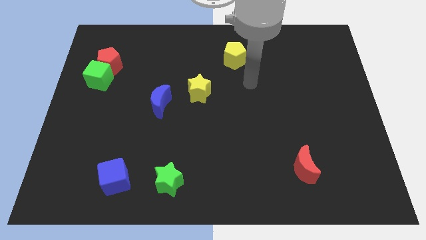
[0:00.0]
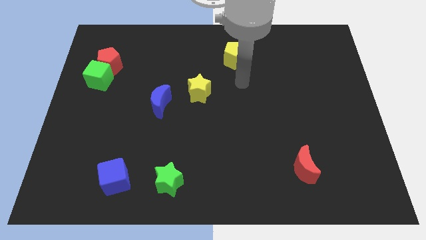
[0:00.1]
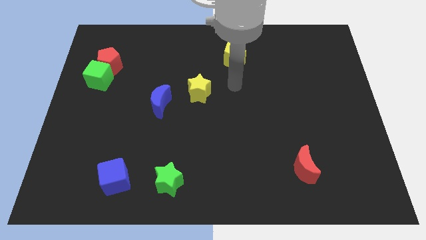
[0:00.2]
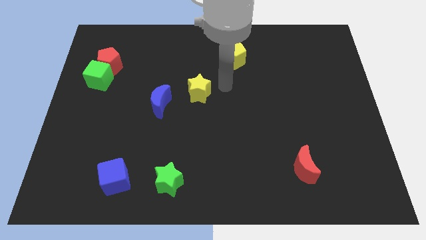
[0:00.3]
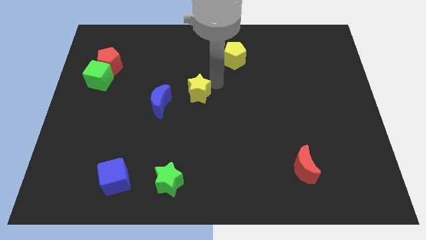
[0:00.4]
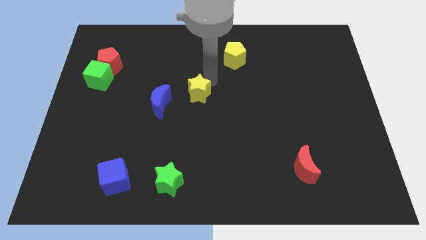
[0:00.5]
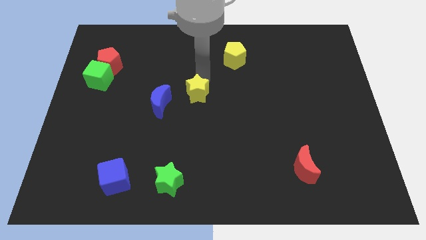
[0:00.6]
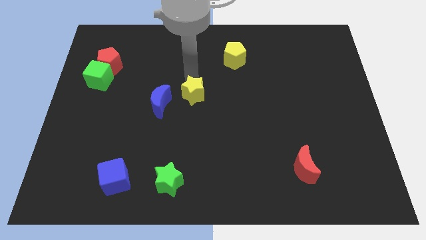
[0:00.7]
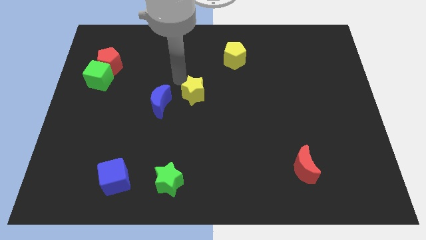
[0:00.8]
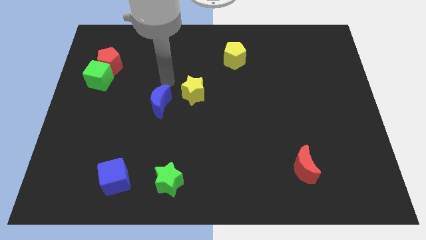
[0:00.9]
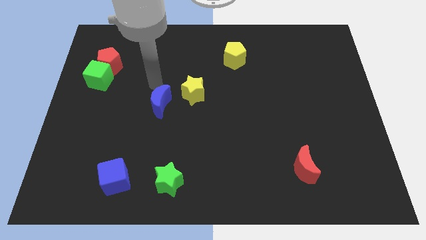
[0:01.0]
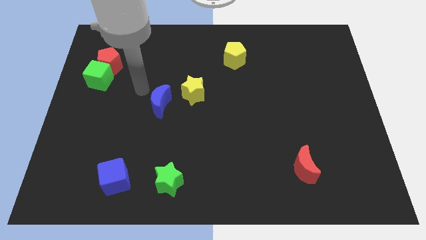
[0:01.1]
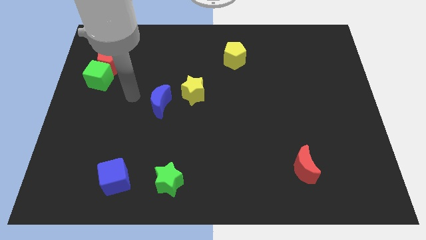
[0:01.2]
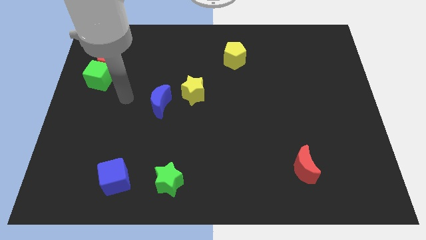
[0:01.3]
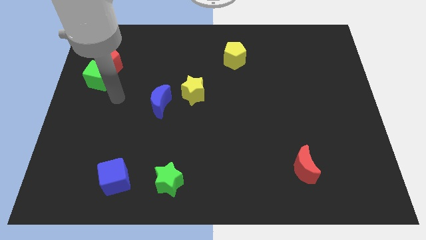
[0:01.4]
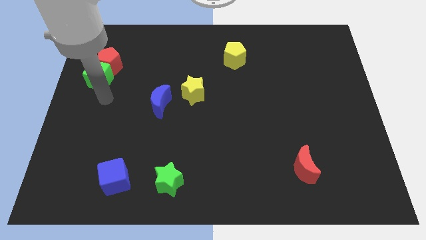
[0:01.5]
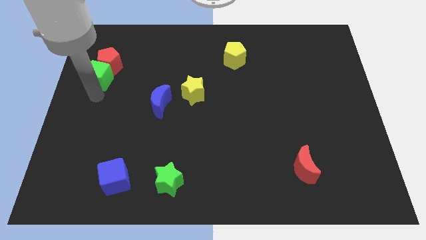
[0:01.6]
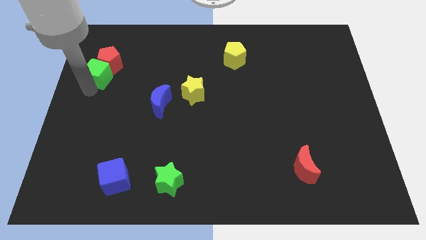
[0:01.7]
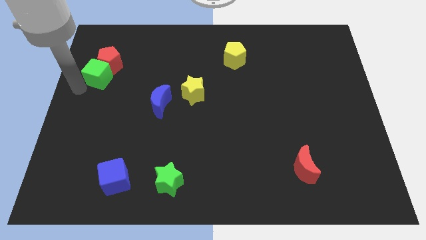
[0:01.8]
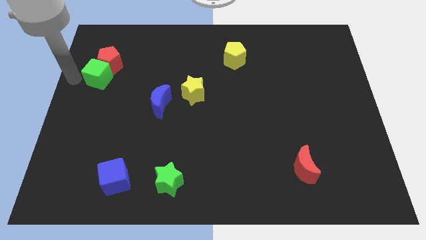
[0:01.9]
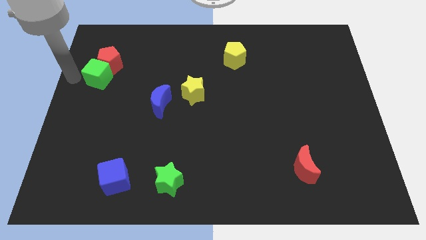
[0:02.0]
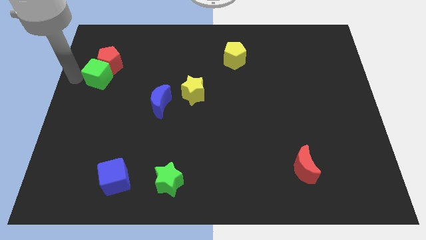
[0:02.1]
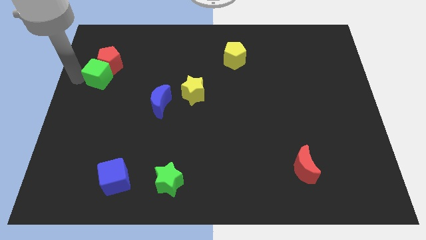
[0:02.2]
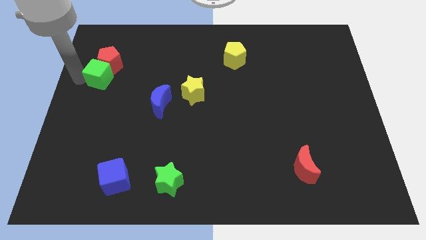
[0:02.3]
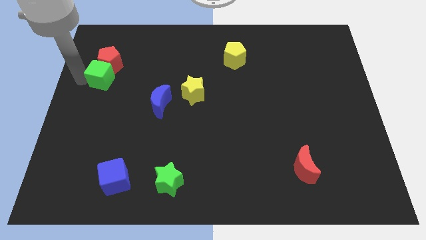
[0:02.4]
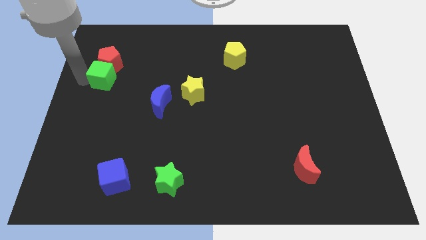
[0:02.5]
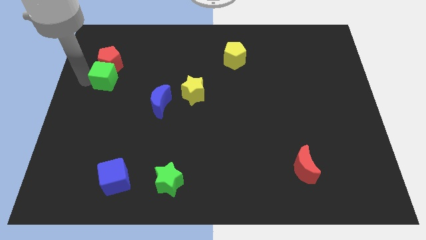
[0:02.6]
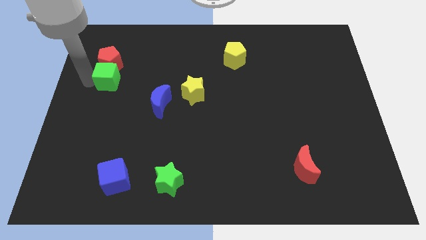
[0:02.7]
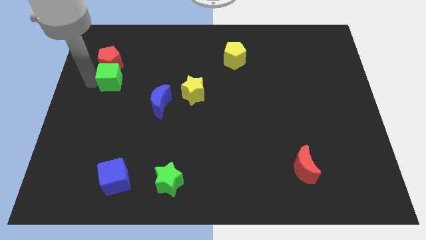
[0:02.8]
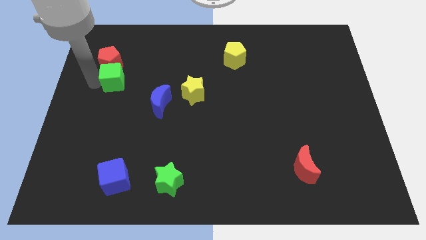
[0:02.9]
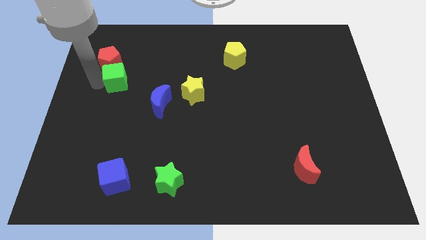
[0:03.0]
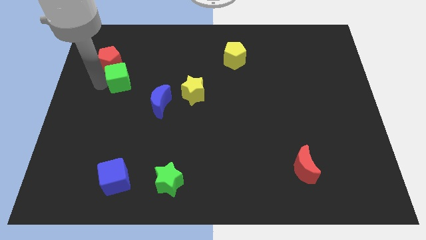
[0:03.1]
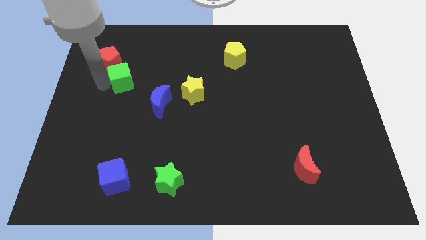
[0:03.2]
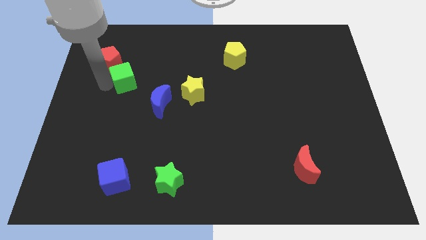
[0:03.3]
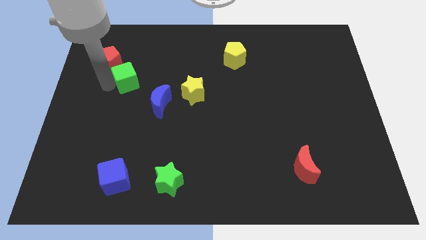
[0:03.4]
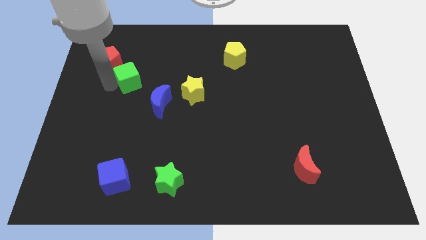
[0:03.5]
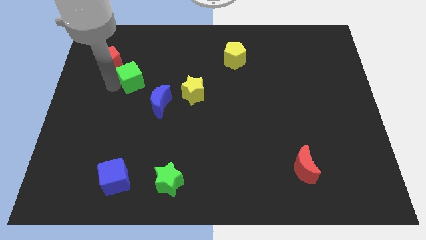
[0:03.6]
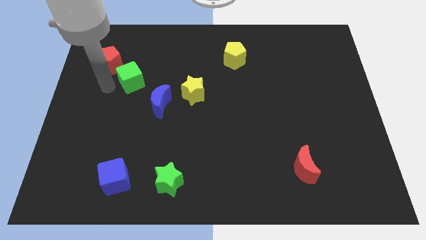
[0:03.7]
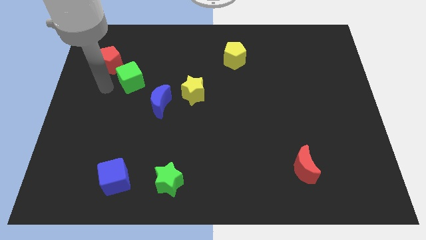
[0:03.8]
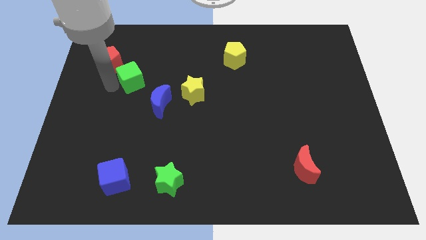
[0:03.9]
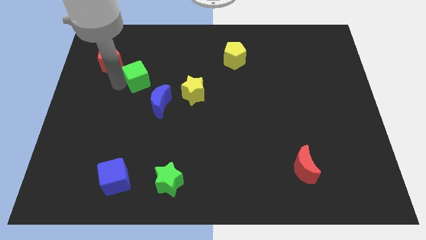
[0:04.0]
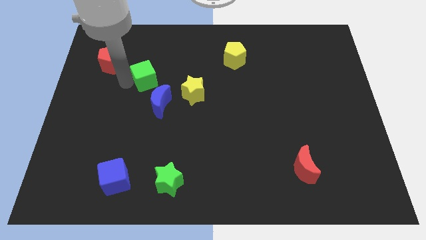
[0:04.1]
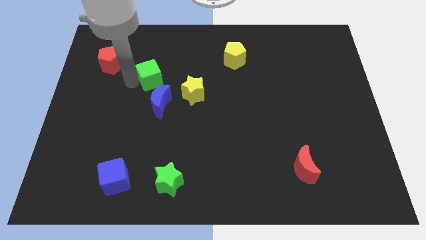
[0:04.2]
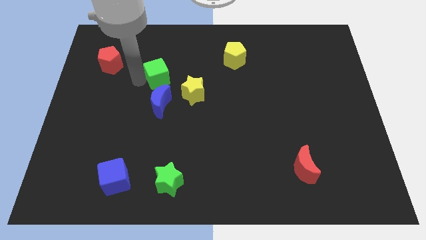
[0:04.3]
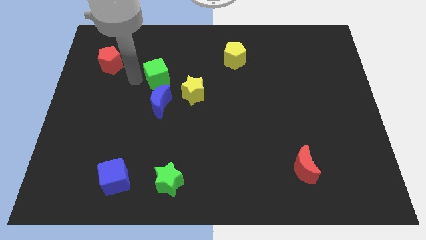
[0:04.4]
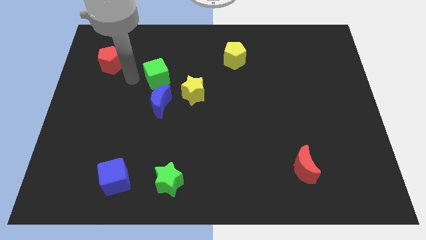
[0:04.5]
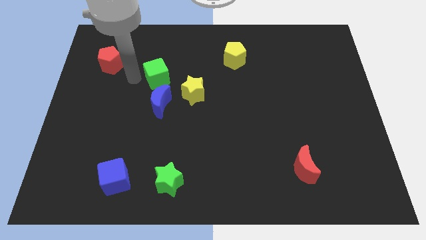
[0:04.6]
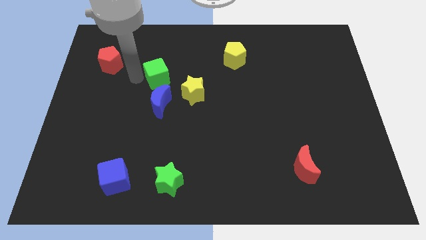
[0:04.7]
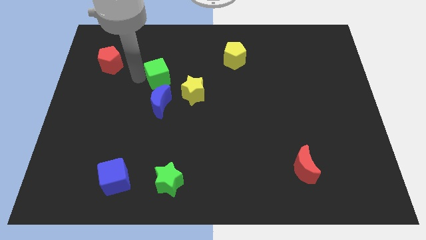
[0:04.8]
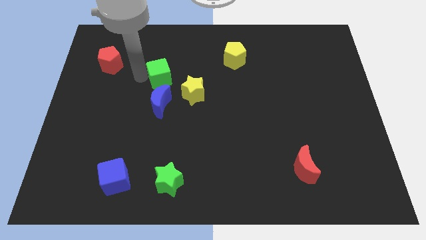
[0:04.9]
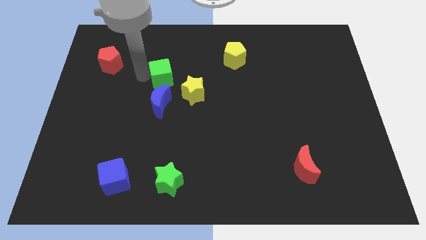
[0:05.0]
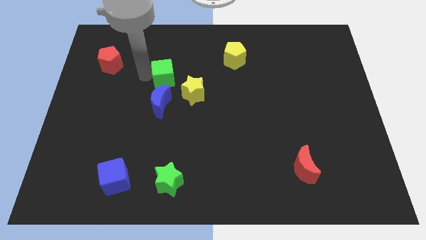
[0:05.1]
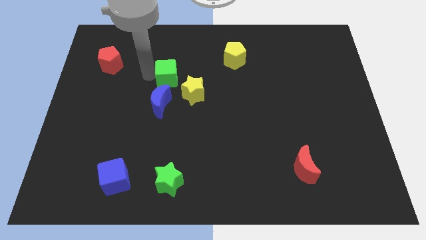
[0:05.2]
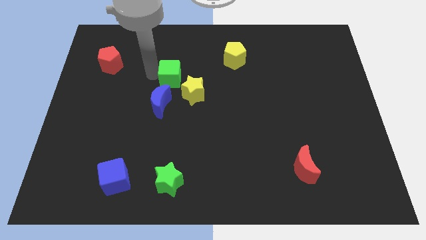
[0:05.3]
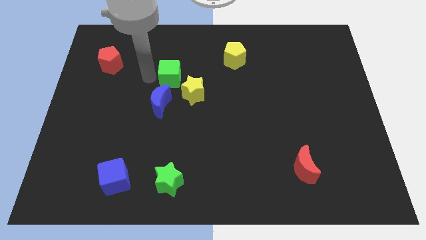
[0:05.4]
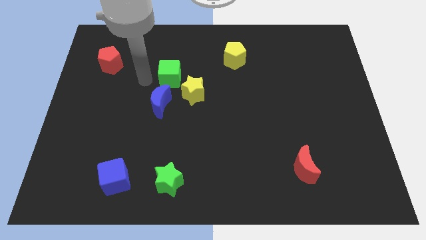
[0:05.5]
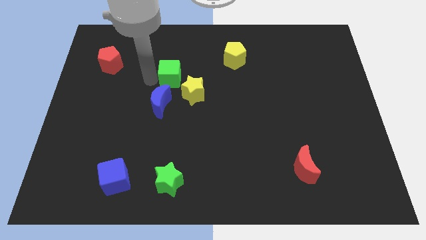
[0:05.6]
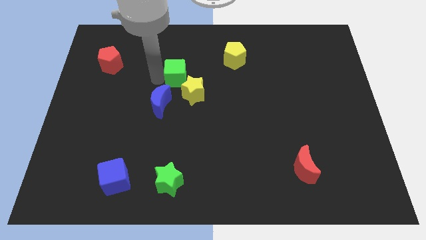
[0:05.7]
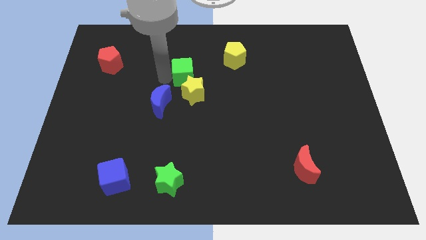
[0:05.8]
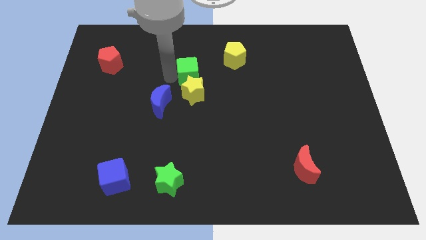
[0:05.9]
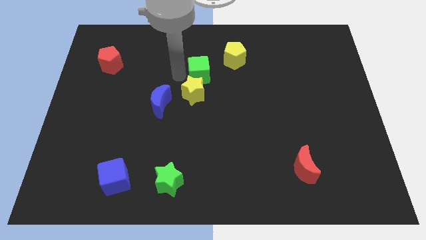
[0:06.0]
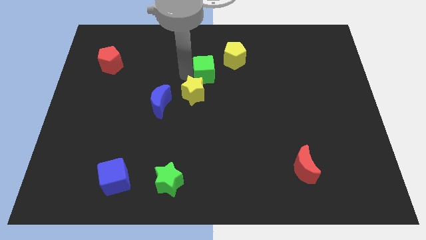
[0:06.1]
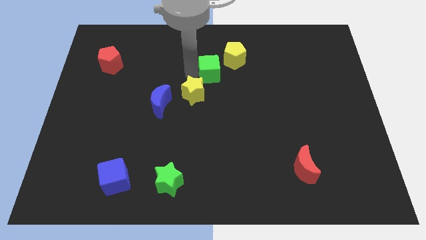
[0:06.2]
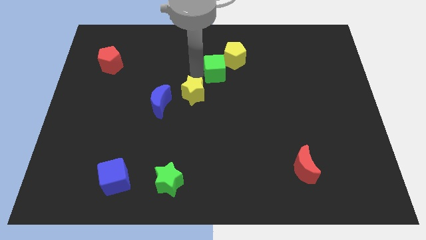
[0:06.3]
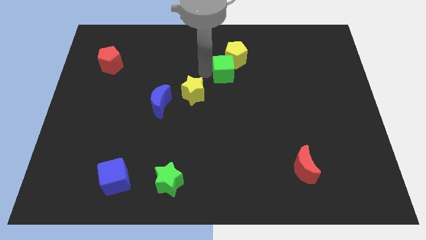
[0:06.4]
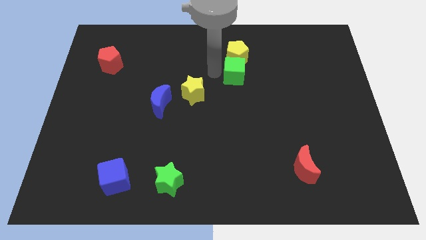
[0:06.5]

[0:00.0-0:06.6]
move the green cube diagonally down and to the right of the yellow pentagon

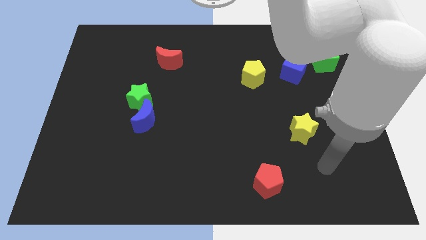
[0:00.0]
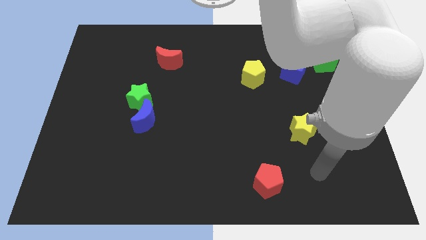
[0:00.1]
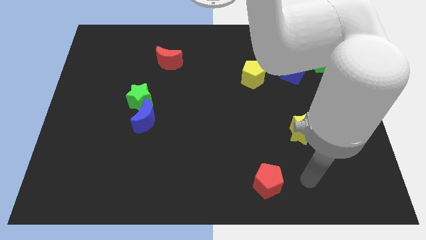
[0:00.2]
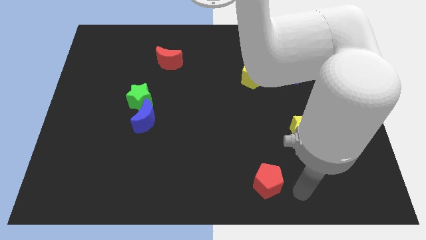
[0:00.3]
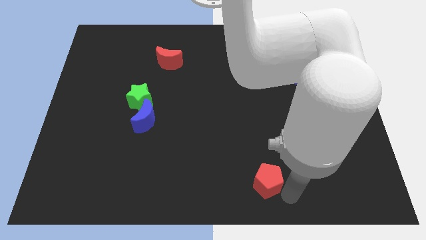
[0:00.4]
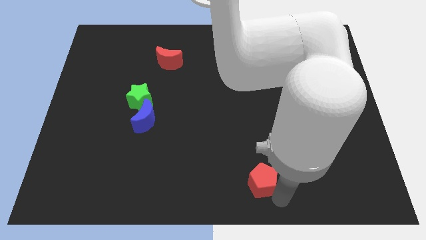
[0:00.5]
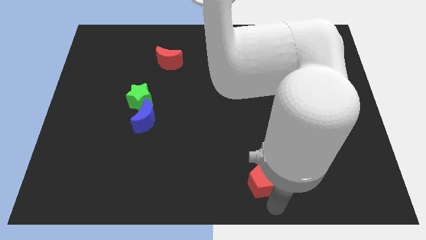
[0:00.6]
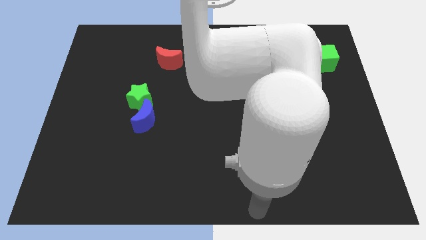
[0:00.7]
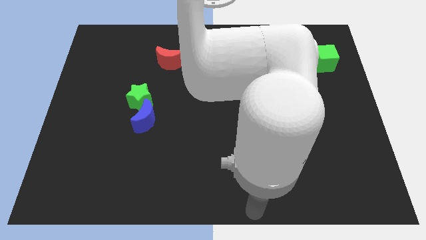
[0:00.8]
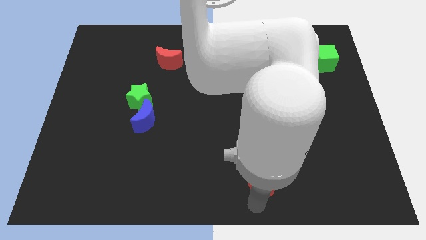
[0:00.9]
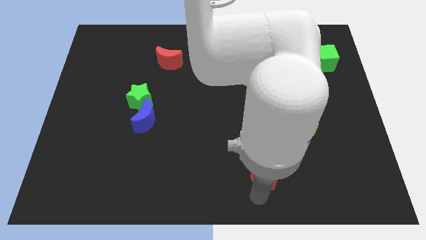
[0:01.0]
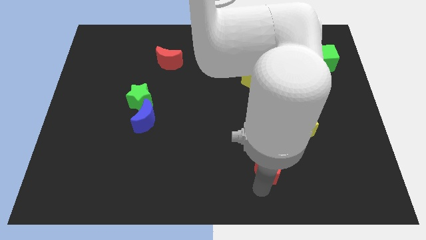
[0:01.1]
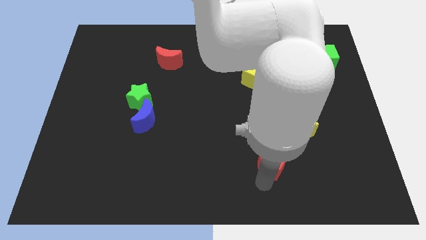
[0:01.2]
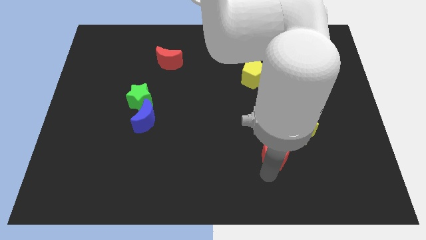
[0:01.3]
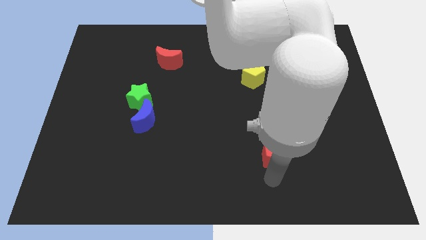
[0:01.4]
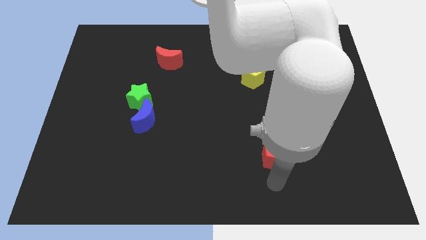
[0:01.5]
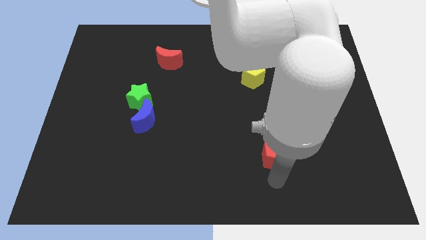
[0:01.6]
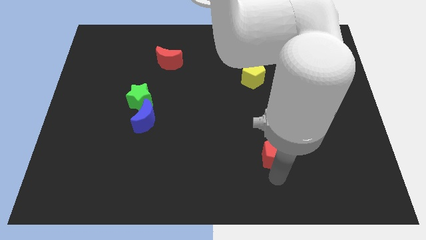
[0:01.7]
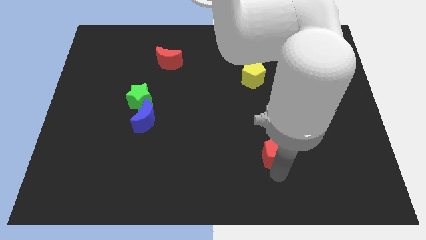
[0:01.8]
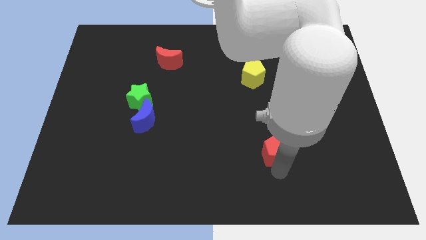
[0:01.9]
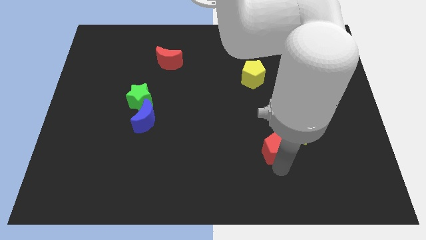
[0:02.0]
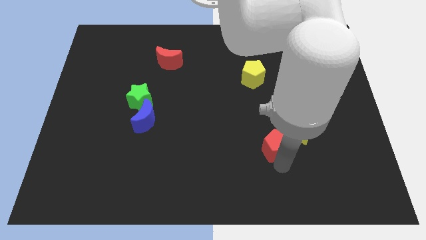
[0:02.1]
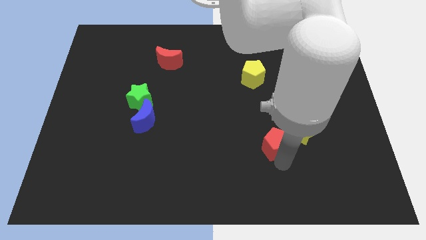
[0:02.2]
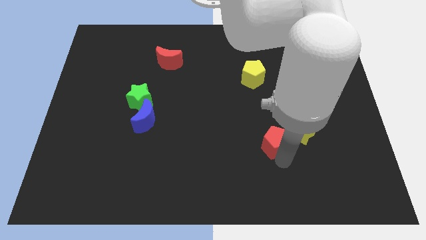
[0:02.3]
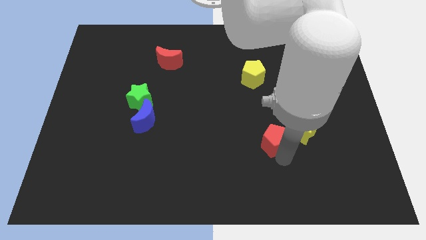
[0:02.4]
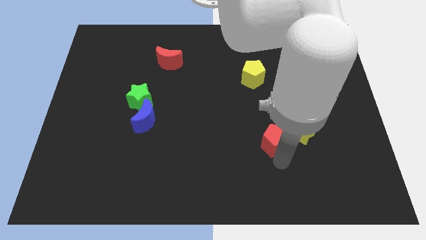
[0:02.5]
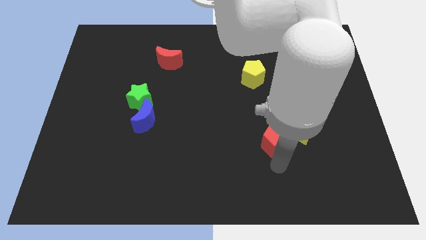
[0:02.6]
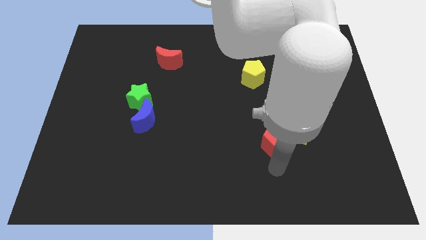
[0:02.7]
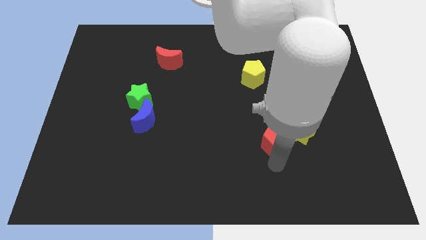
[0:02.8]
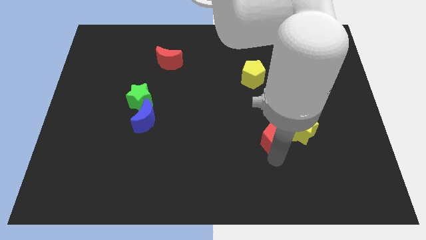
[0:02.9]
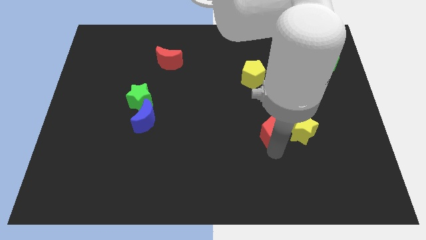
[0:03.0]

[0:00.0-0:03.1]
push the red pentagon to the top left side of the yellow star
